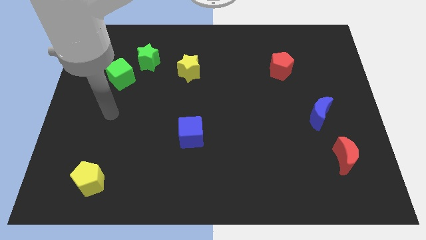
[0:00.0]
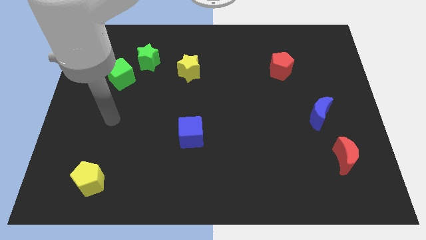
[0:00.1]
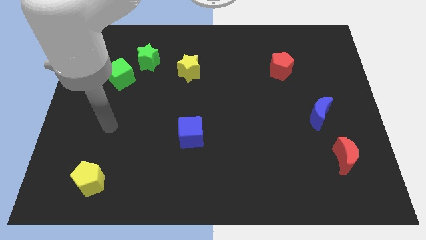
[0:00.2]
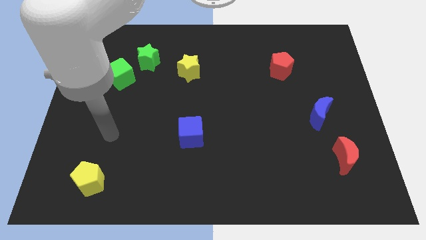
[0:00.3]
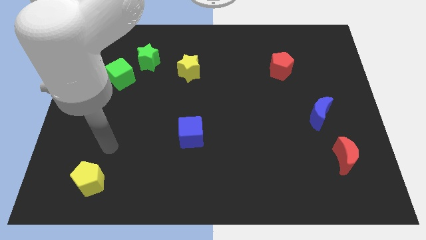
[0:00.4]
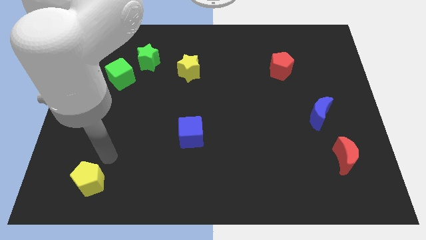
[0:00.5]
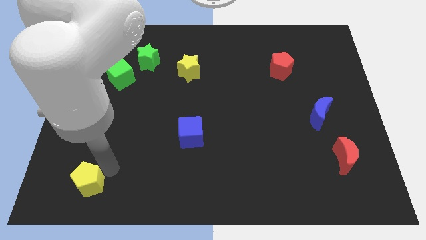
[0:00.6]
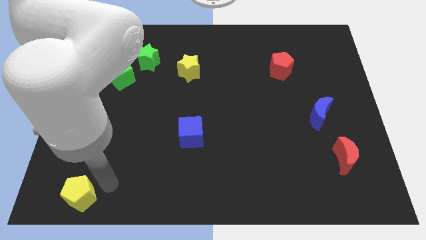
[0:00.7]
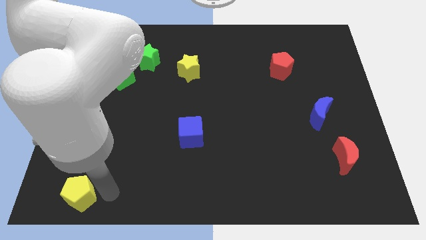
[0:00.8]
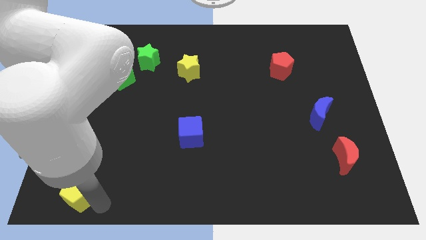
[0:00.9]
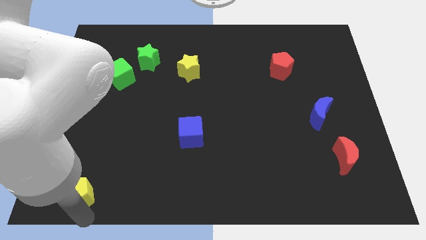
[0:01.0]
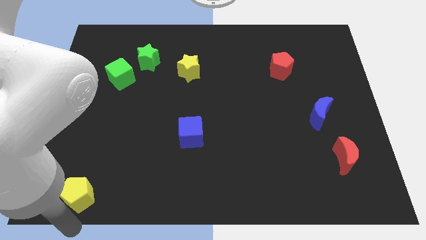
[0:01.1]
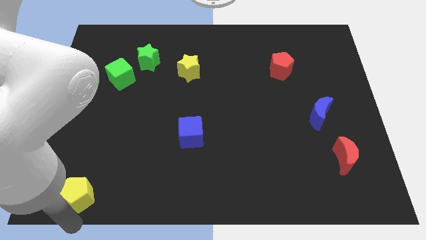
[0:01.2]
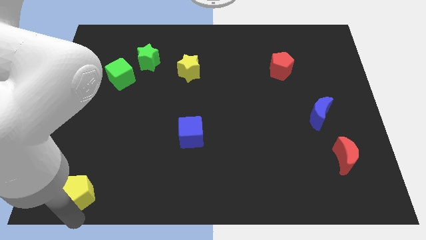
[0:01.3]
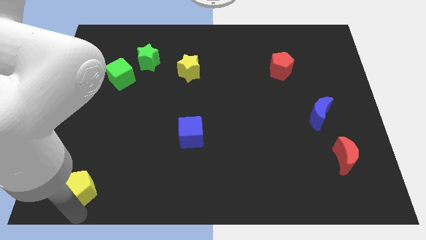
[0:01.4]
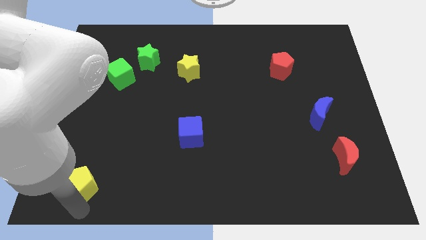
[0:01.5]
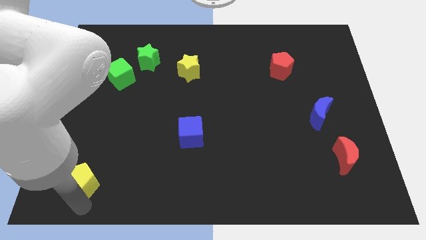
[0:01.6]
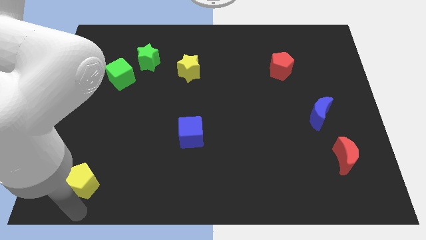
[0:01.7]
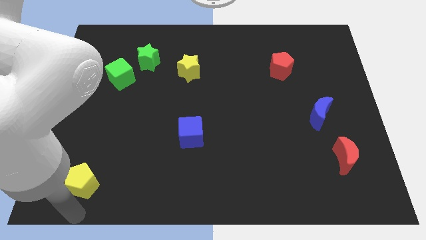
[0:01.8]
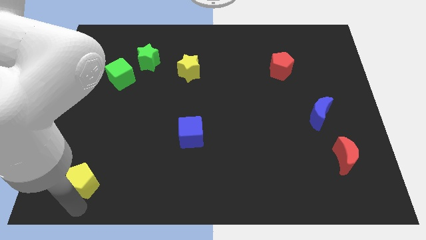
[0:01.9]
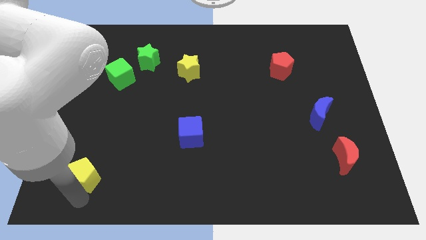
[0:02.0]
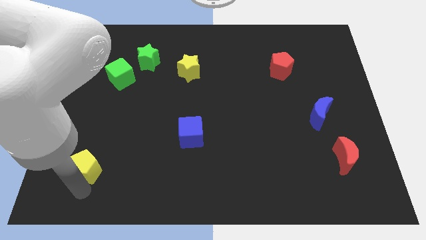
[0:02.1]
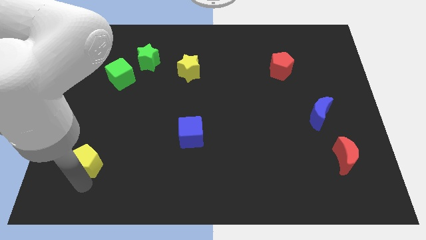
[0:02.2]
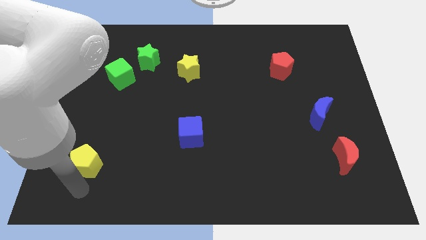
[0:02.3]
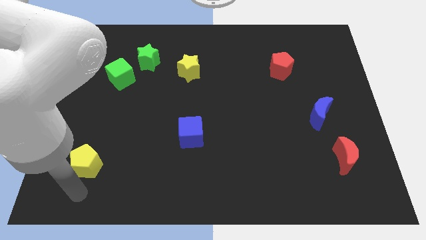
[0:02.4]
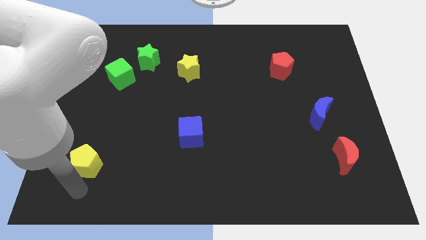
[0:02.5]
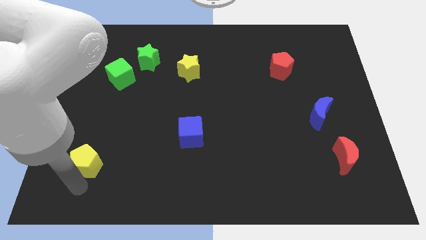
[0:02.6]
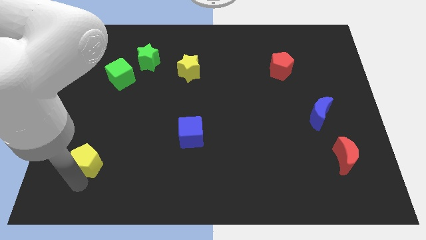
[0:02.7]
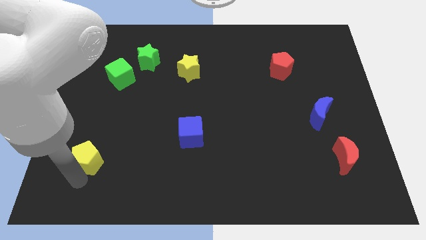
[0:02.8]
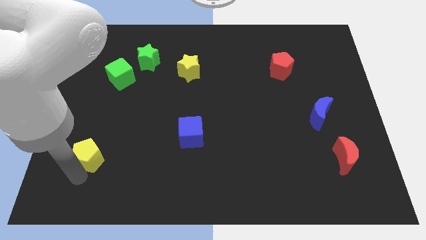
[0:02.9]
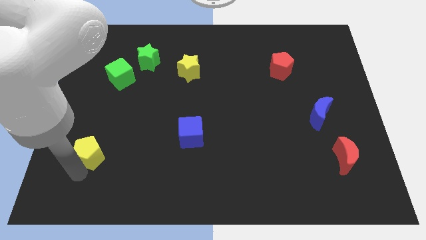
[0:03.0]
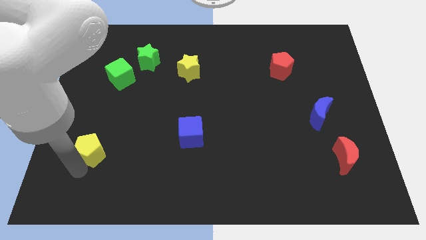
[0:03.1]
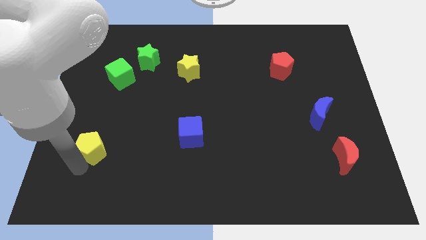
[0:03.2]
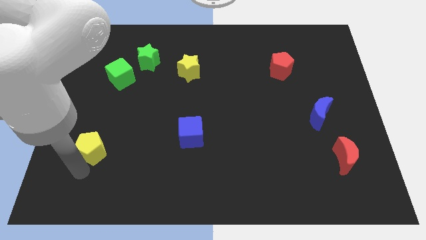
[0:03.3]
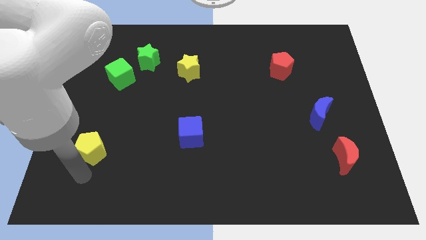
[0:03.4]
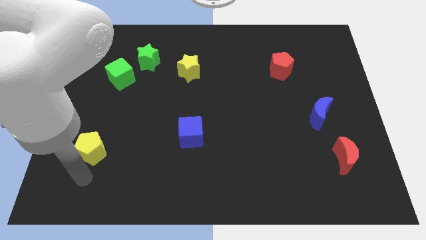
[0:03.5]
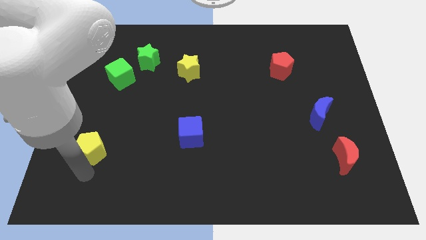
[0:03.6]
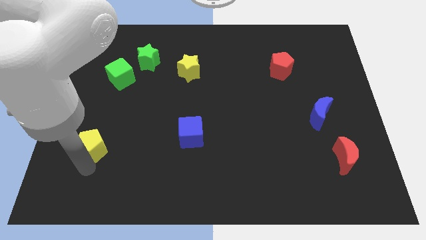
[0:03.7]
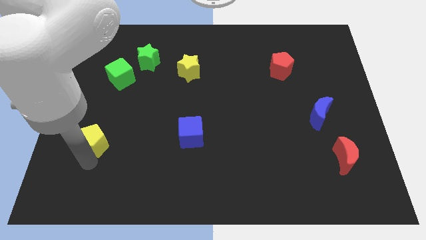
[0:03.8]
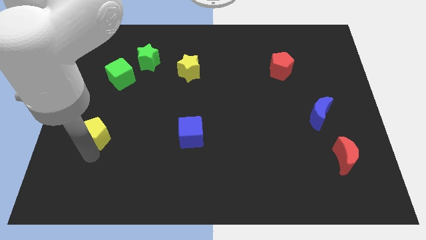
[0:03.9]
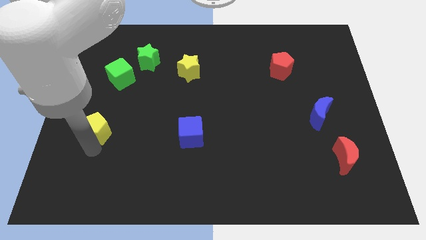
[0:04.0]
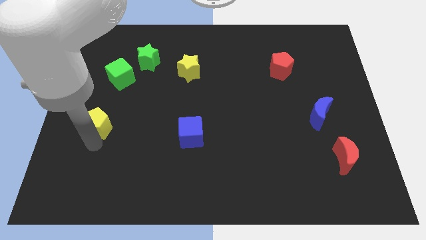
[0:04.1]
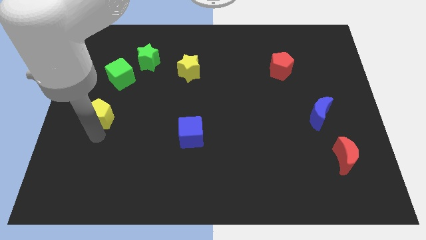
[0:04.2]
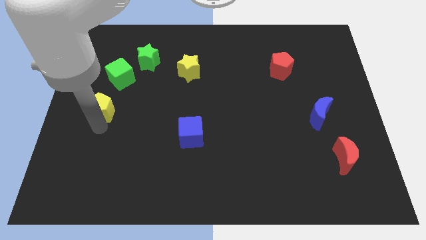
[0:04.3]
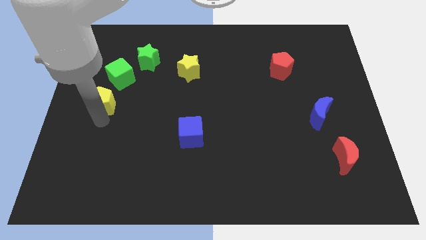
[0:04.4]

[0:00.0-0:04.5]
move the yellow pentagon to the bottom left of the green cube

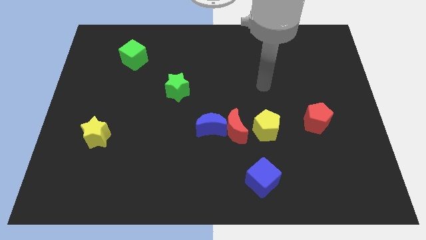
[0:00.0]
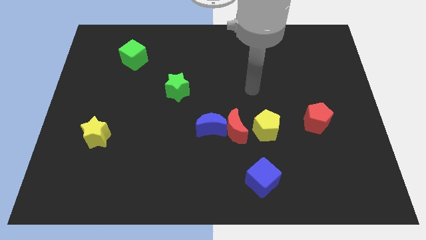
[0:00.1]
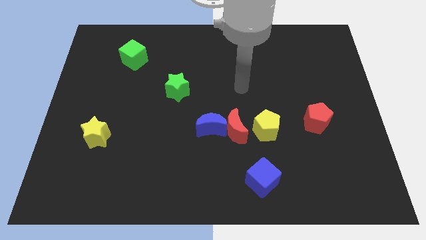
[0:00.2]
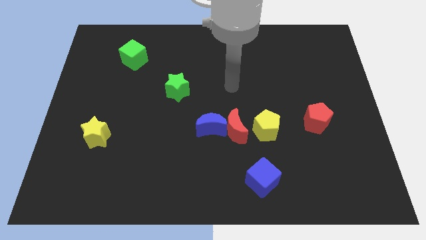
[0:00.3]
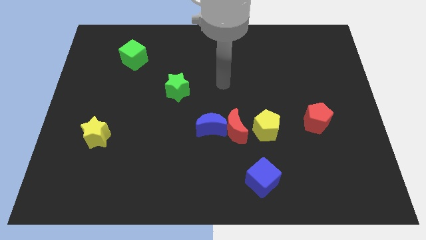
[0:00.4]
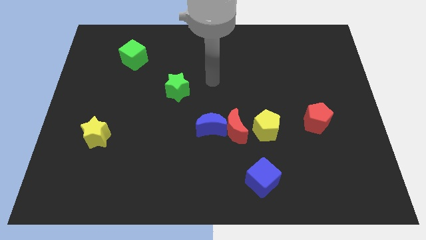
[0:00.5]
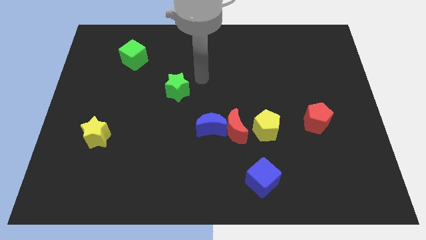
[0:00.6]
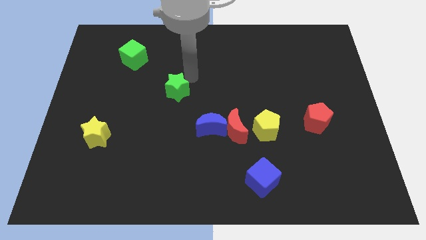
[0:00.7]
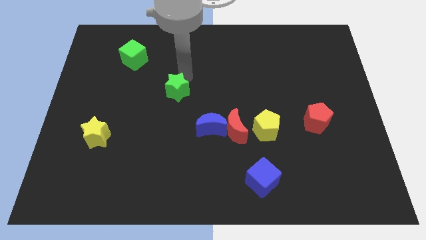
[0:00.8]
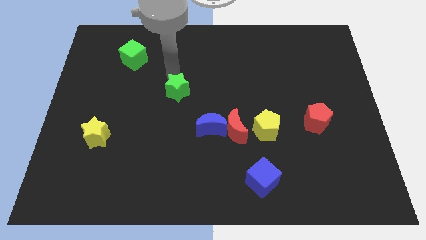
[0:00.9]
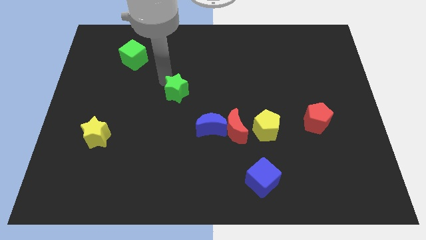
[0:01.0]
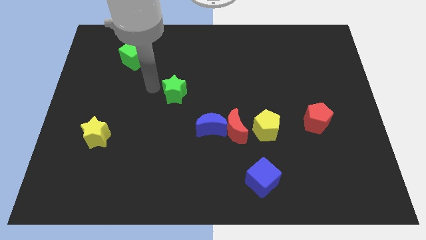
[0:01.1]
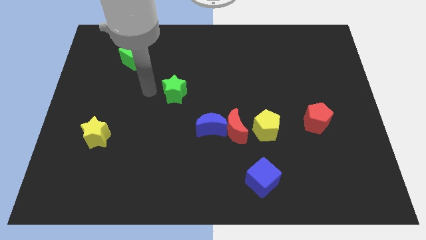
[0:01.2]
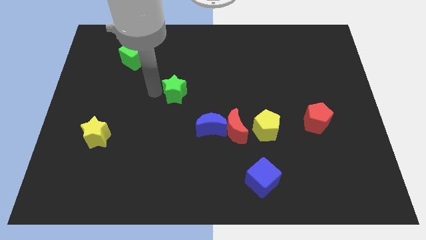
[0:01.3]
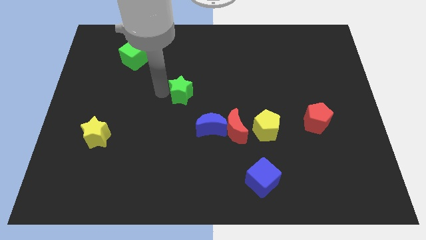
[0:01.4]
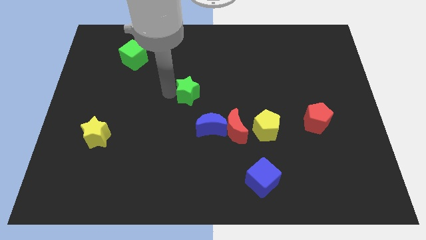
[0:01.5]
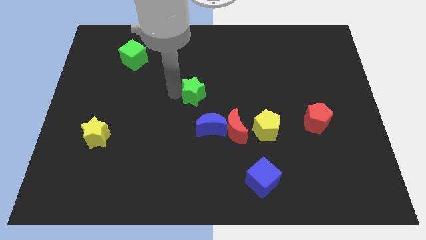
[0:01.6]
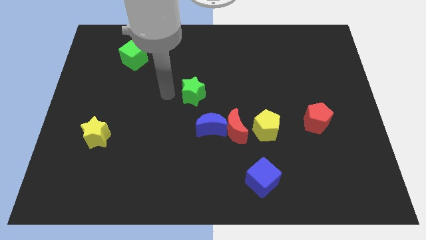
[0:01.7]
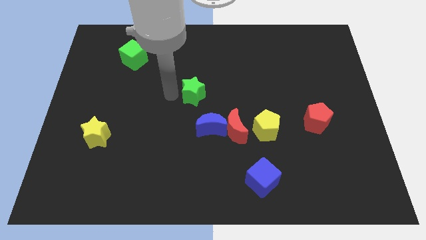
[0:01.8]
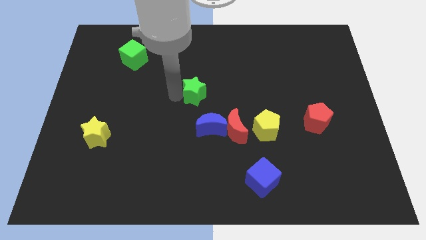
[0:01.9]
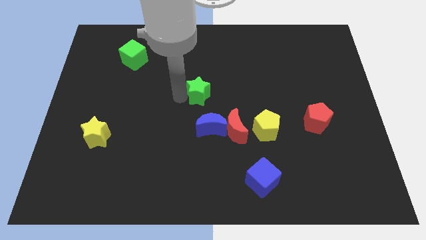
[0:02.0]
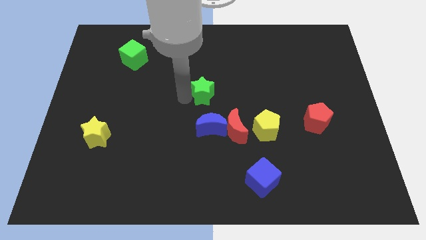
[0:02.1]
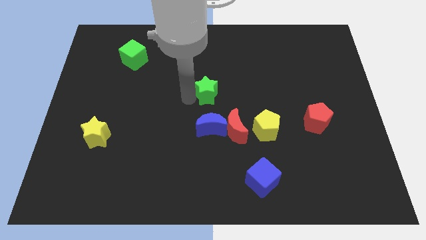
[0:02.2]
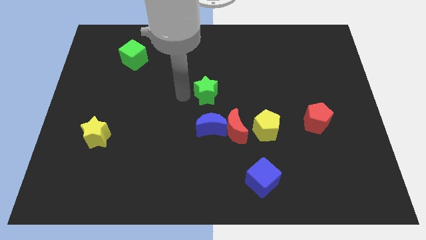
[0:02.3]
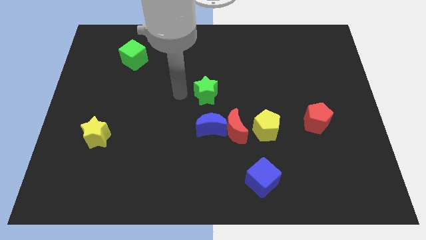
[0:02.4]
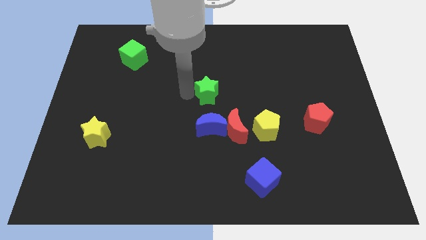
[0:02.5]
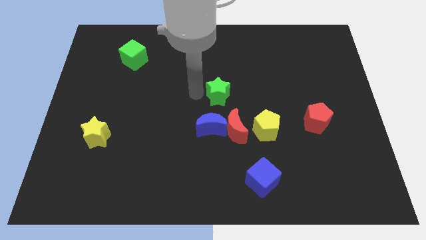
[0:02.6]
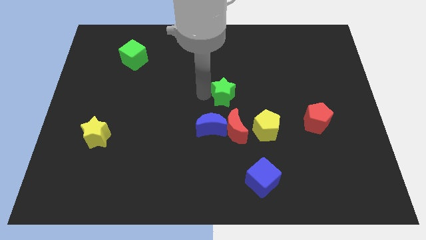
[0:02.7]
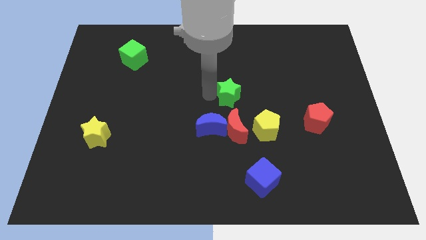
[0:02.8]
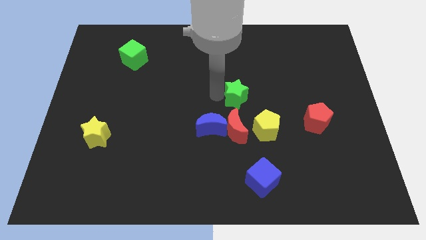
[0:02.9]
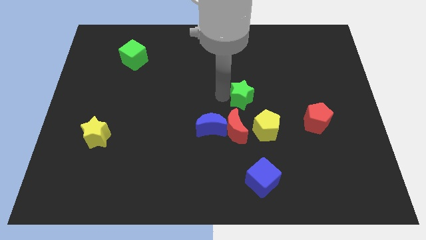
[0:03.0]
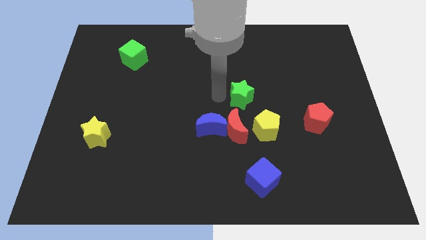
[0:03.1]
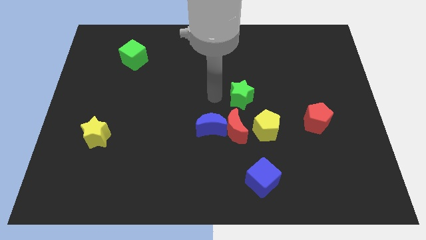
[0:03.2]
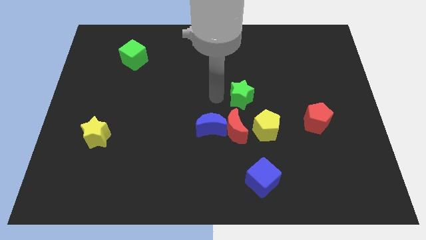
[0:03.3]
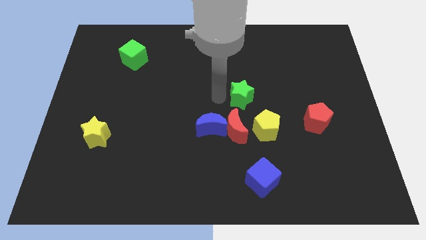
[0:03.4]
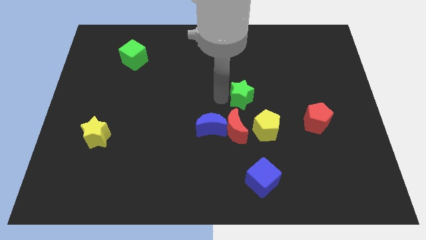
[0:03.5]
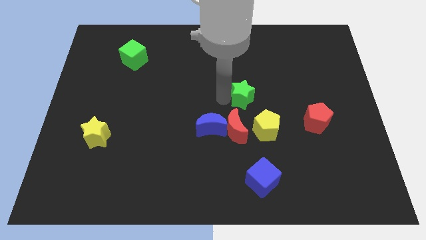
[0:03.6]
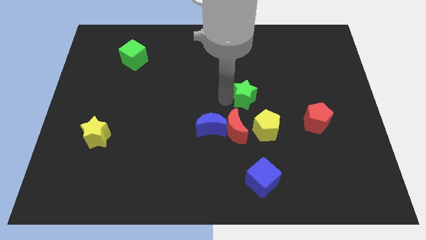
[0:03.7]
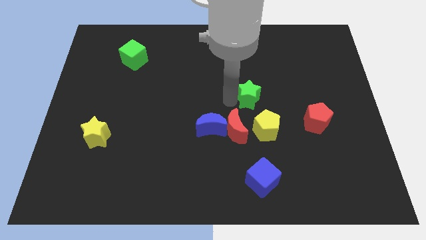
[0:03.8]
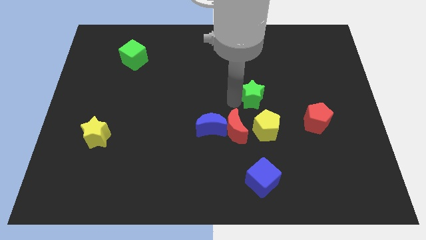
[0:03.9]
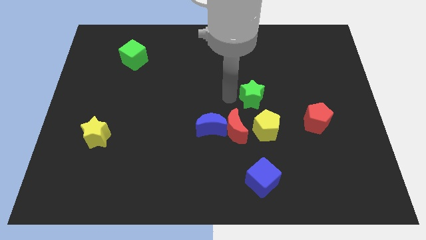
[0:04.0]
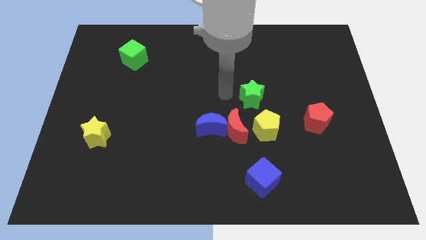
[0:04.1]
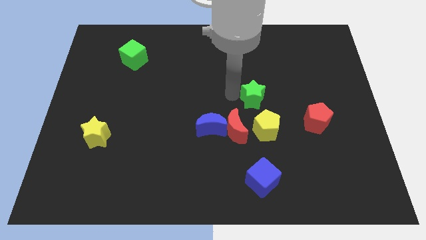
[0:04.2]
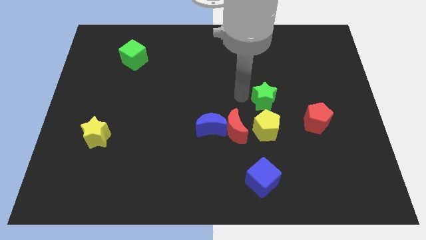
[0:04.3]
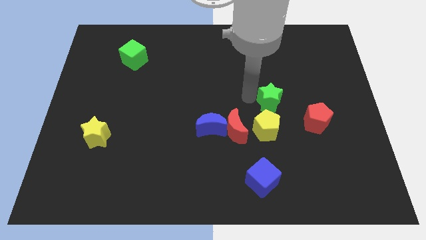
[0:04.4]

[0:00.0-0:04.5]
move the green star to the top left side of the red pentagon
